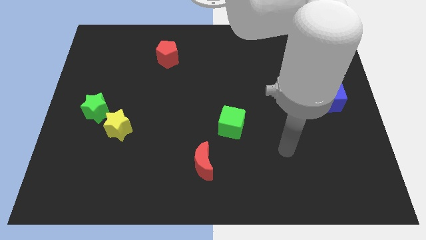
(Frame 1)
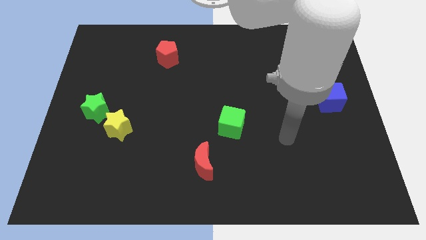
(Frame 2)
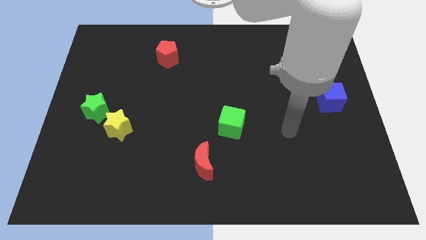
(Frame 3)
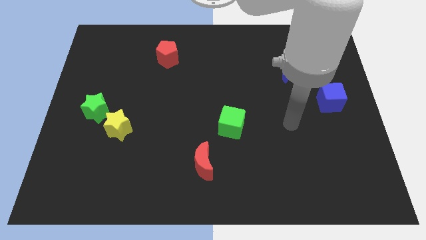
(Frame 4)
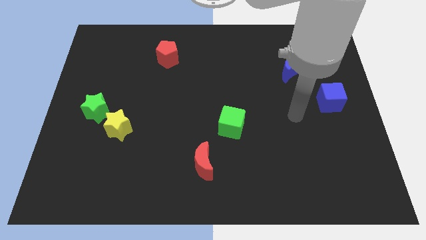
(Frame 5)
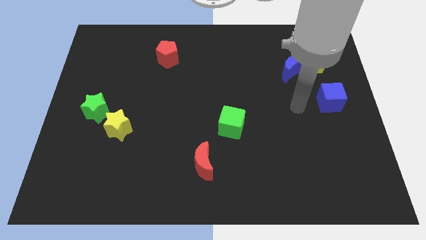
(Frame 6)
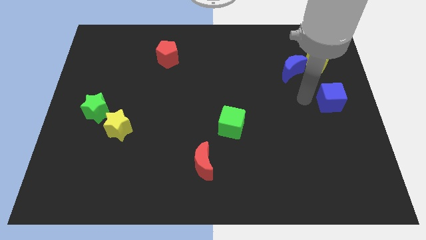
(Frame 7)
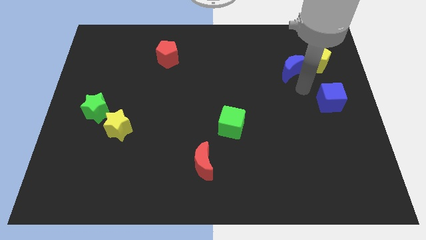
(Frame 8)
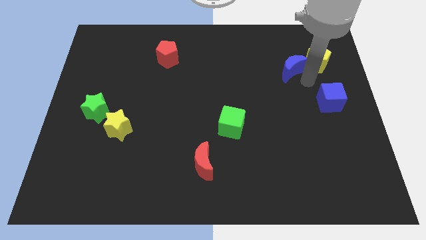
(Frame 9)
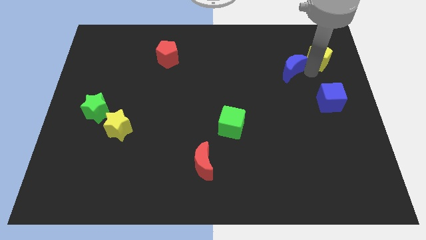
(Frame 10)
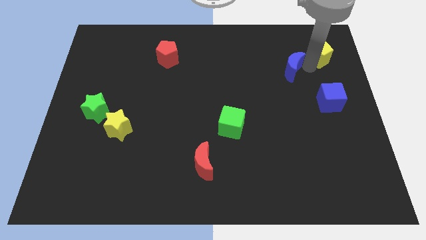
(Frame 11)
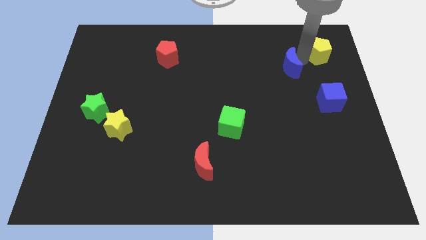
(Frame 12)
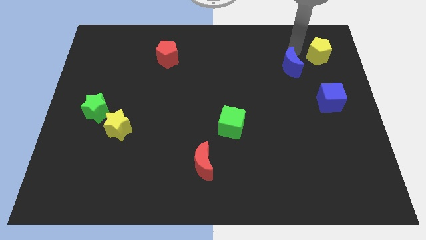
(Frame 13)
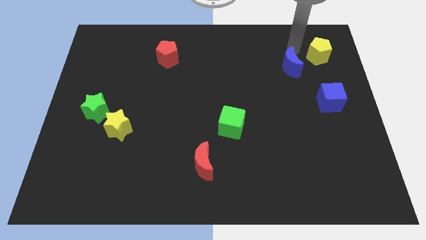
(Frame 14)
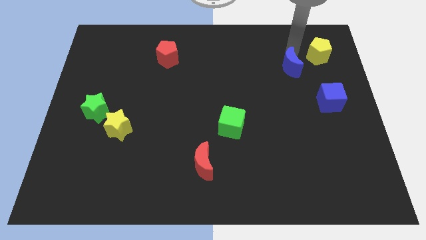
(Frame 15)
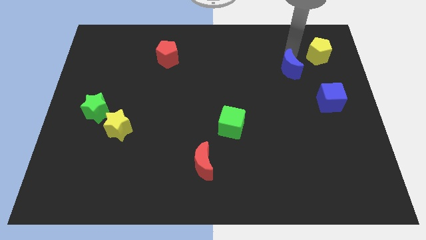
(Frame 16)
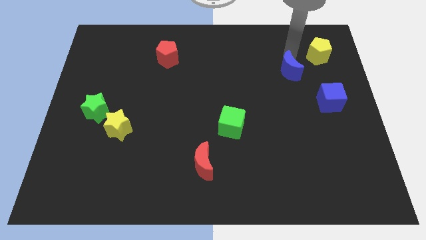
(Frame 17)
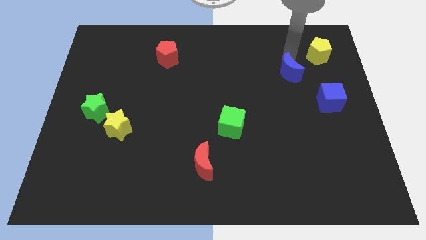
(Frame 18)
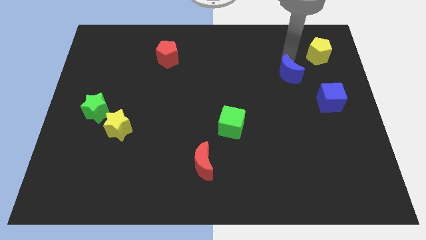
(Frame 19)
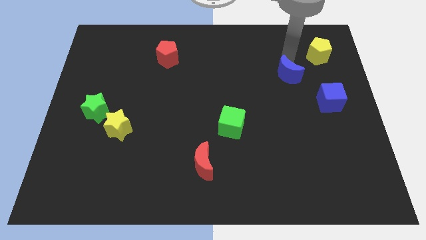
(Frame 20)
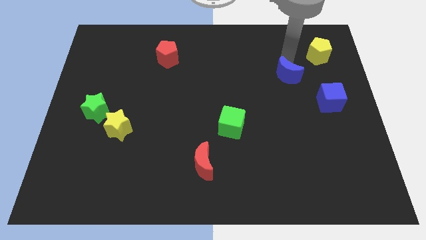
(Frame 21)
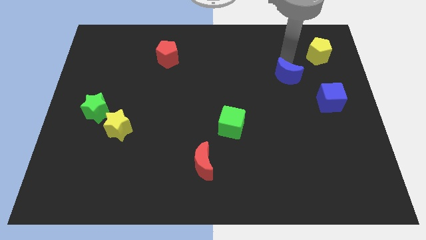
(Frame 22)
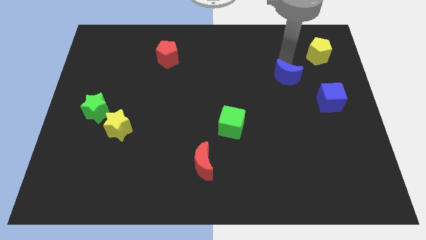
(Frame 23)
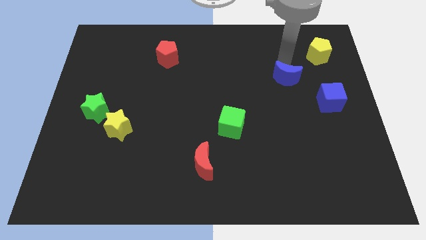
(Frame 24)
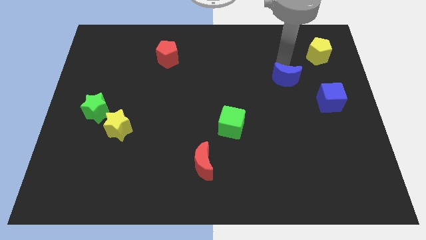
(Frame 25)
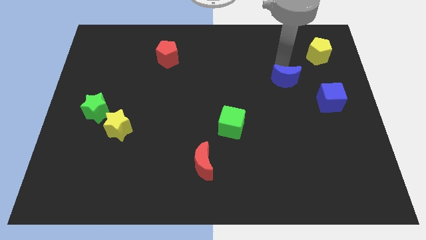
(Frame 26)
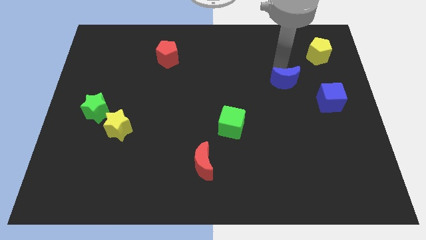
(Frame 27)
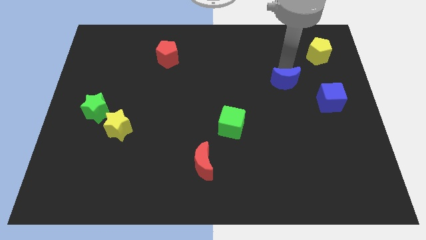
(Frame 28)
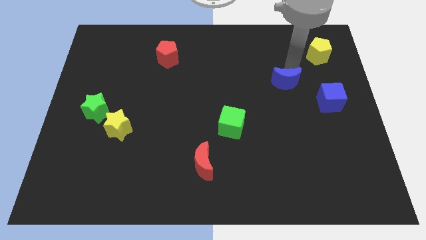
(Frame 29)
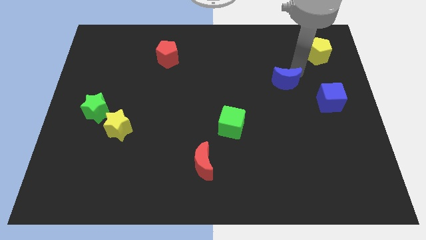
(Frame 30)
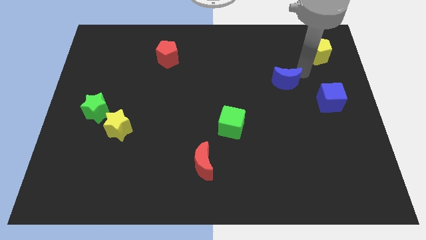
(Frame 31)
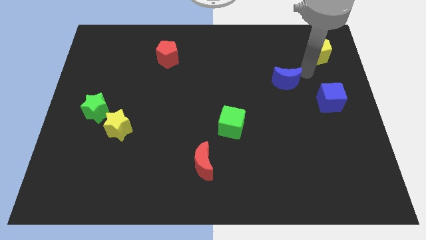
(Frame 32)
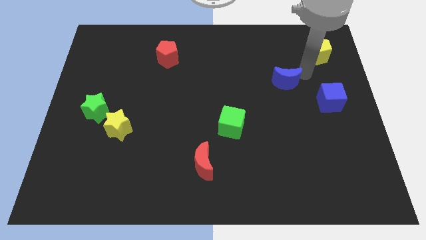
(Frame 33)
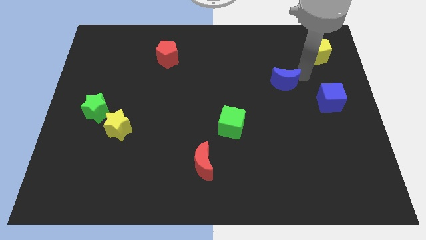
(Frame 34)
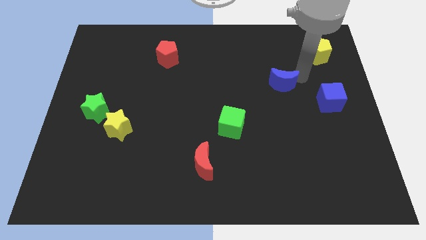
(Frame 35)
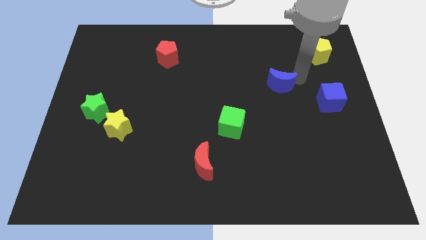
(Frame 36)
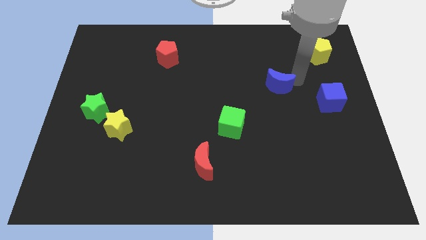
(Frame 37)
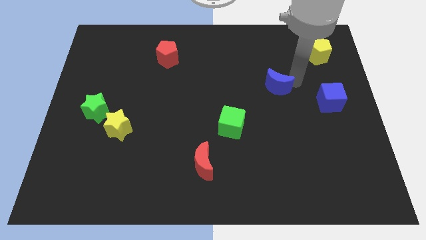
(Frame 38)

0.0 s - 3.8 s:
slide the blue moon downwards and left diagonally a little bit

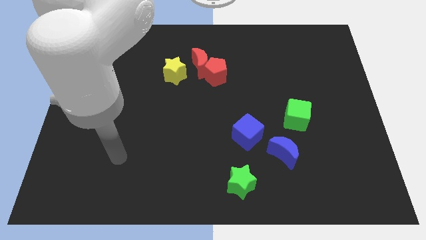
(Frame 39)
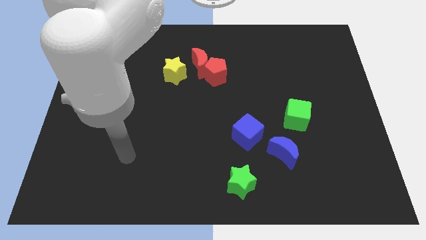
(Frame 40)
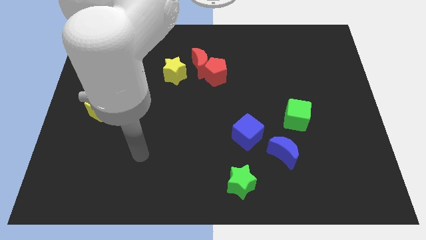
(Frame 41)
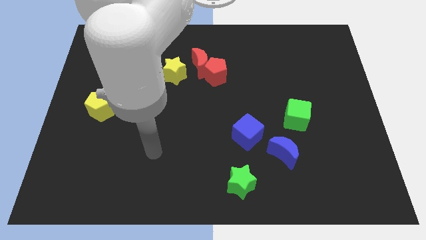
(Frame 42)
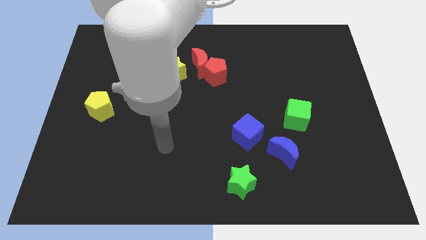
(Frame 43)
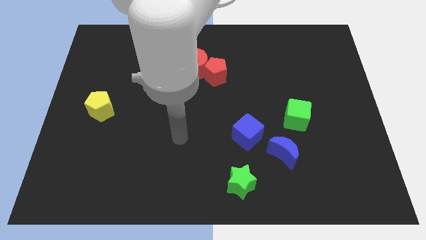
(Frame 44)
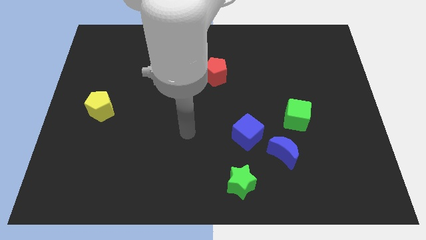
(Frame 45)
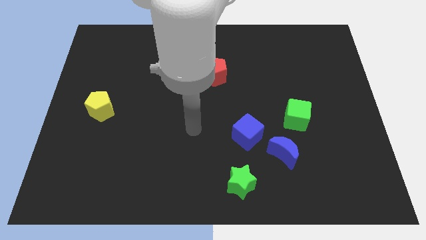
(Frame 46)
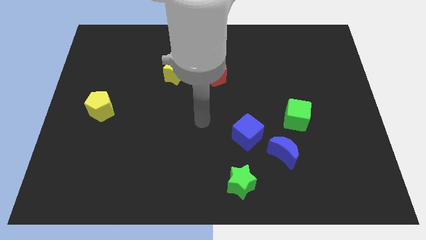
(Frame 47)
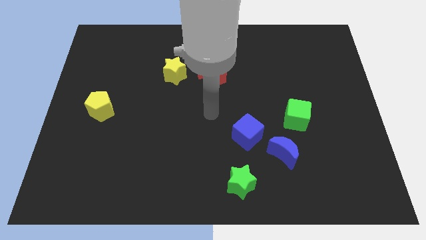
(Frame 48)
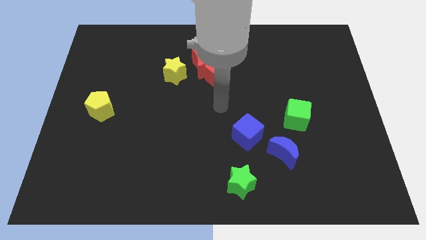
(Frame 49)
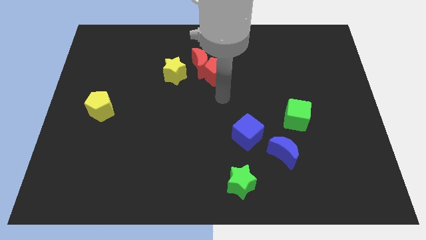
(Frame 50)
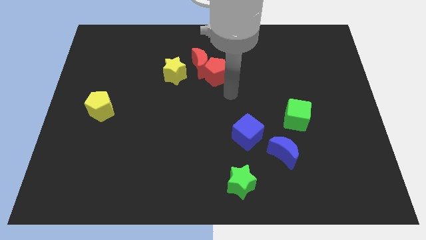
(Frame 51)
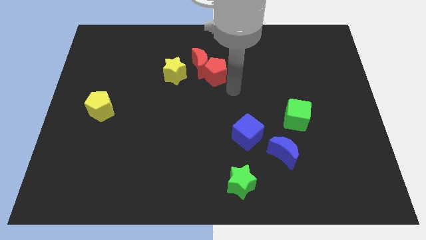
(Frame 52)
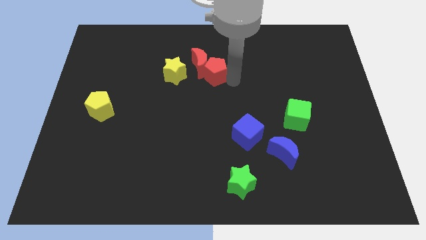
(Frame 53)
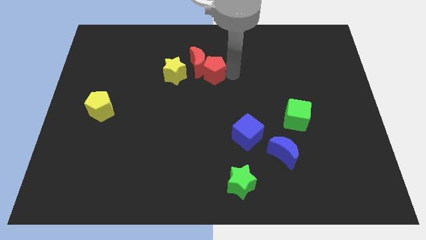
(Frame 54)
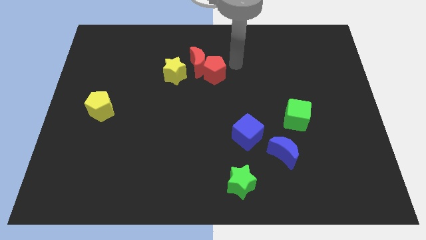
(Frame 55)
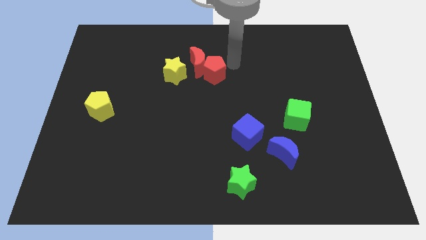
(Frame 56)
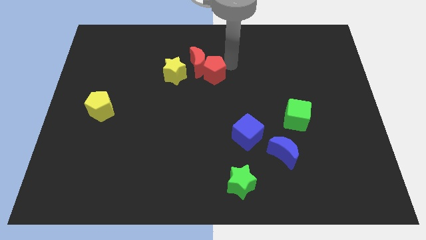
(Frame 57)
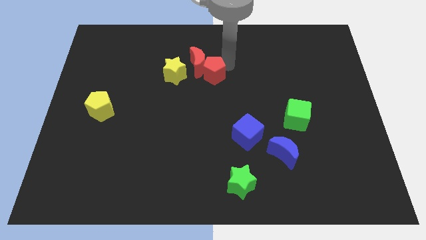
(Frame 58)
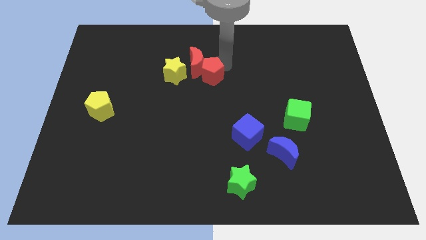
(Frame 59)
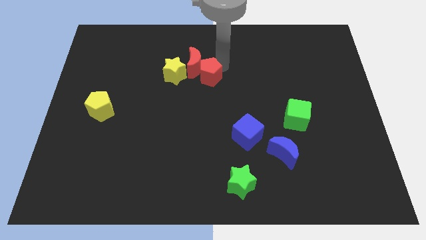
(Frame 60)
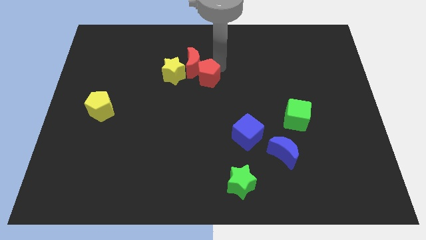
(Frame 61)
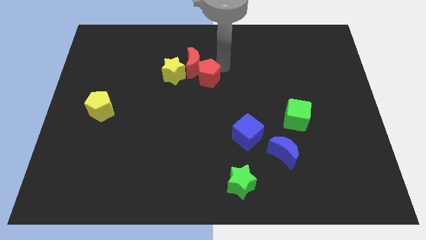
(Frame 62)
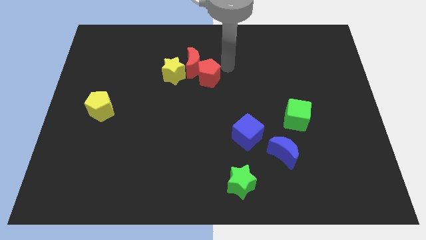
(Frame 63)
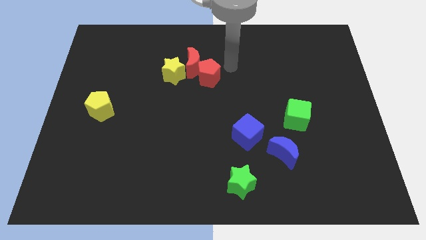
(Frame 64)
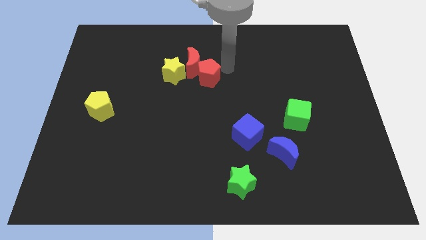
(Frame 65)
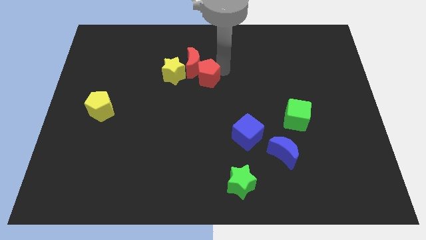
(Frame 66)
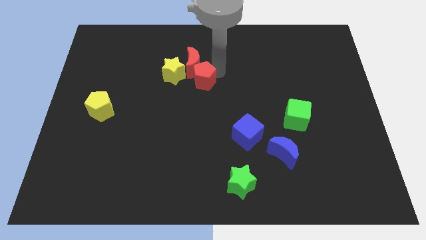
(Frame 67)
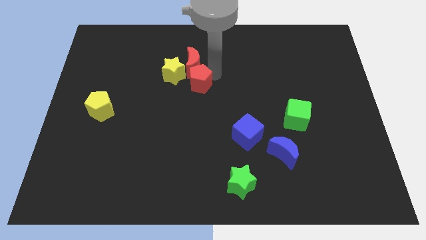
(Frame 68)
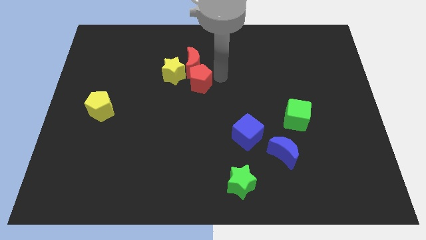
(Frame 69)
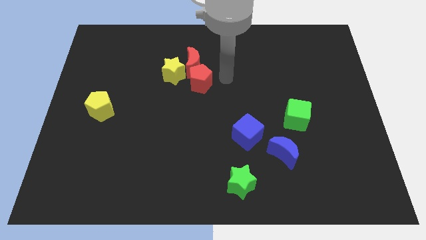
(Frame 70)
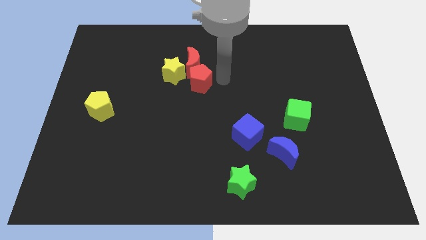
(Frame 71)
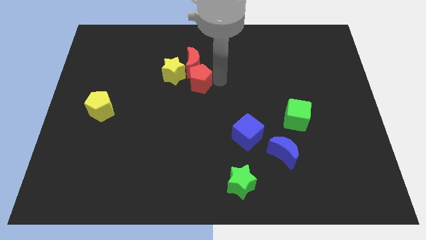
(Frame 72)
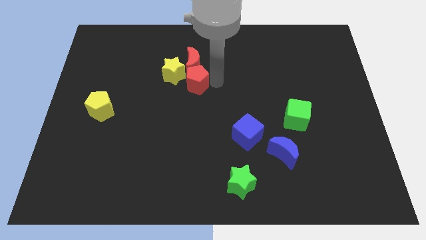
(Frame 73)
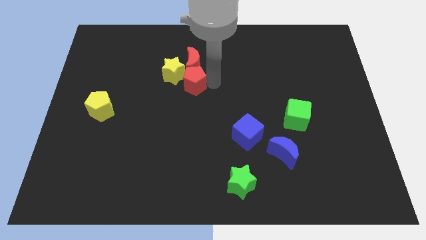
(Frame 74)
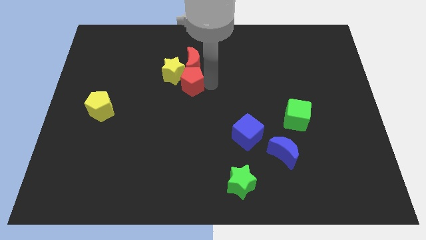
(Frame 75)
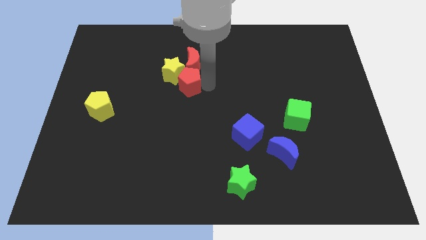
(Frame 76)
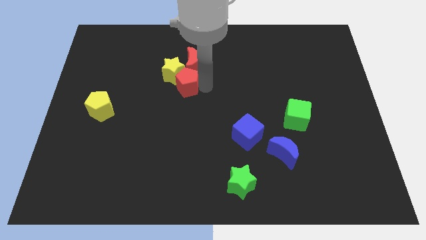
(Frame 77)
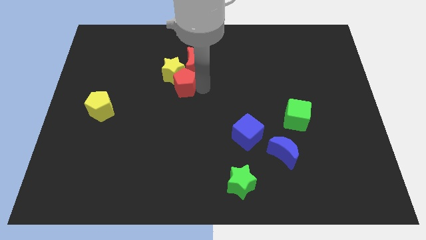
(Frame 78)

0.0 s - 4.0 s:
slide the red pentagon left a little bit

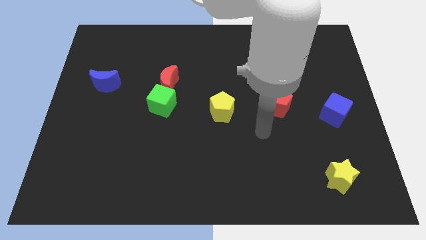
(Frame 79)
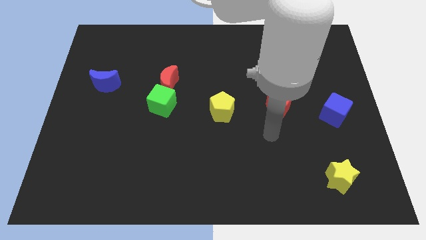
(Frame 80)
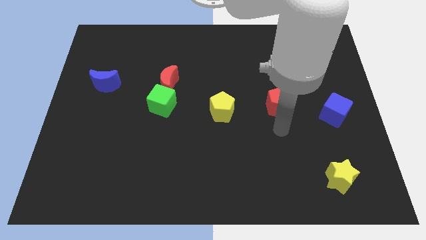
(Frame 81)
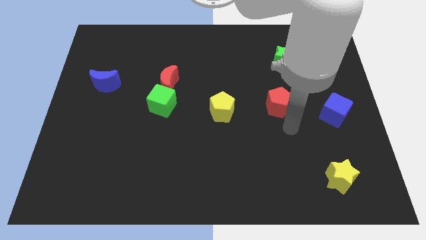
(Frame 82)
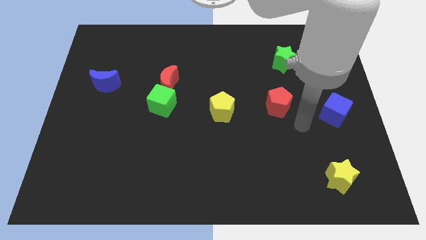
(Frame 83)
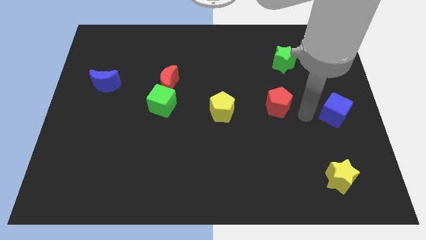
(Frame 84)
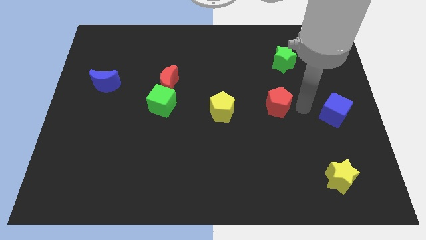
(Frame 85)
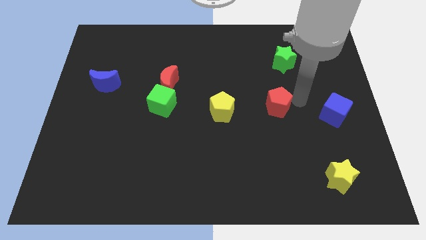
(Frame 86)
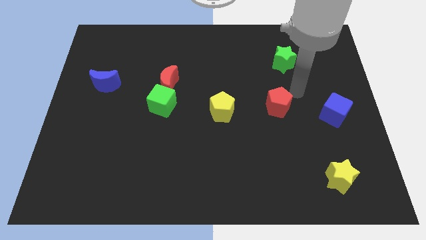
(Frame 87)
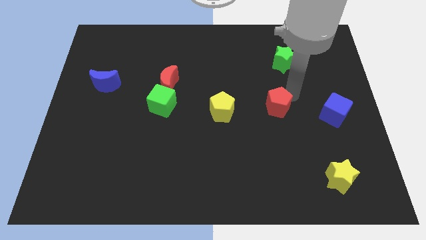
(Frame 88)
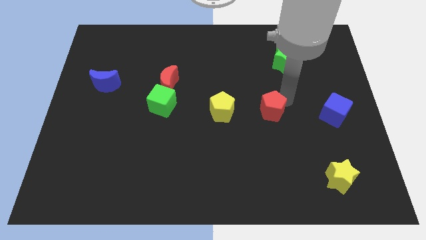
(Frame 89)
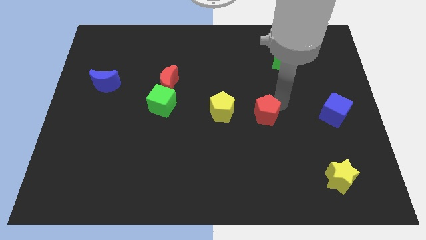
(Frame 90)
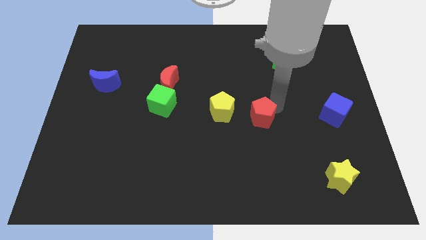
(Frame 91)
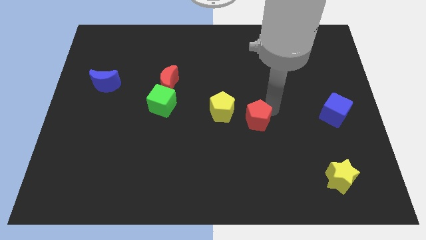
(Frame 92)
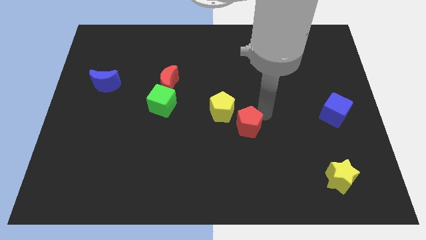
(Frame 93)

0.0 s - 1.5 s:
move the red pentagon a little downwards and left diagonally
